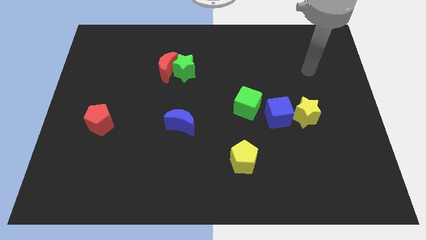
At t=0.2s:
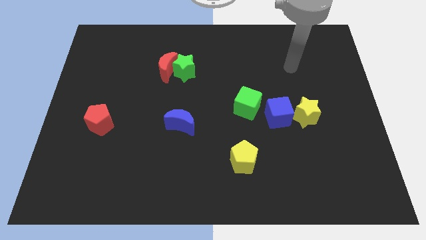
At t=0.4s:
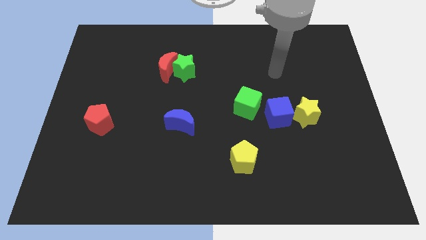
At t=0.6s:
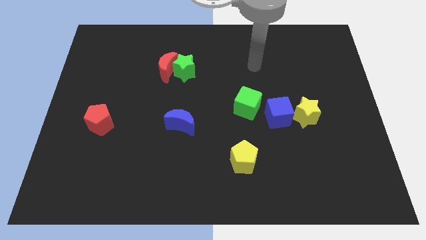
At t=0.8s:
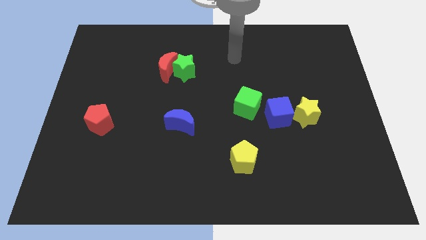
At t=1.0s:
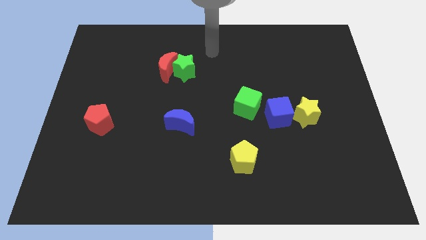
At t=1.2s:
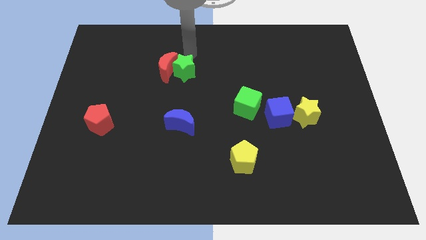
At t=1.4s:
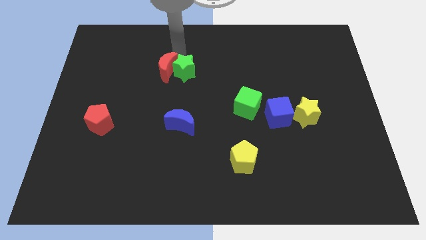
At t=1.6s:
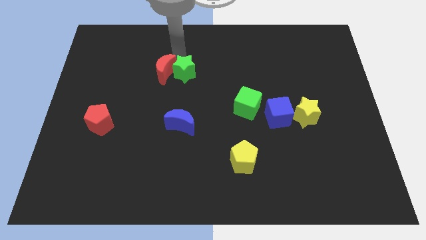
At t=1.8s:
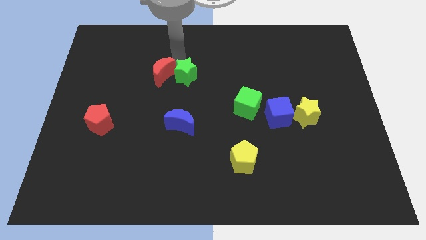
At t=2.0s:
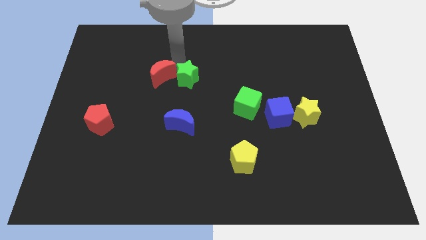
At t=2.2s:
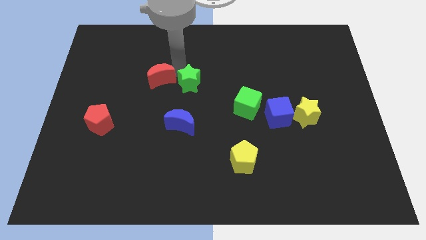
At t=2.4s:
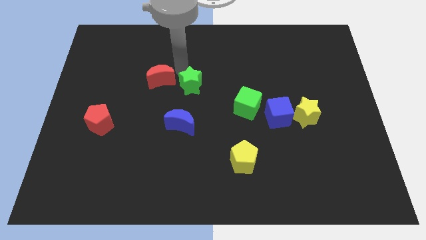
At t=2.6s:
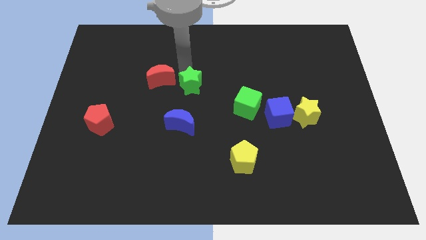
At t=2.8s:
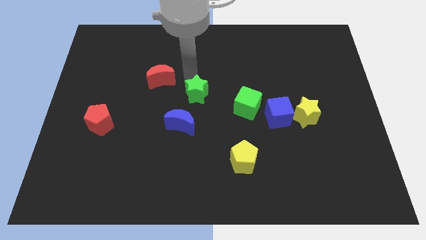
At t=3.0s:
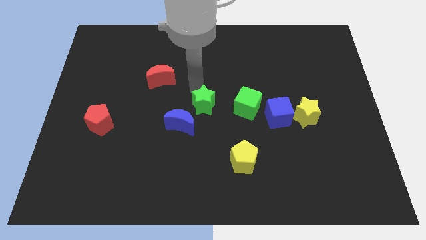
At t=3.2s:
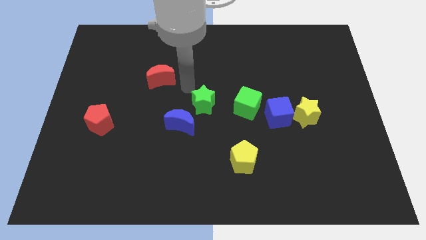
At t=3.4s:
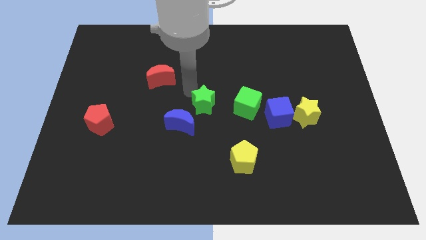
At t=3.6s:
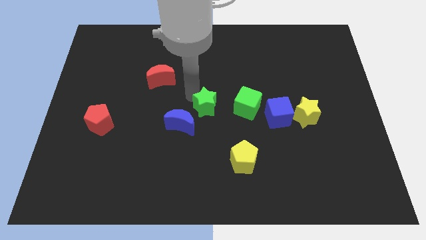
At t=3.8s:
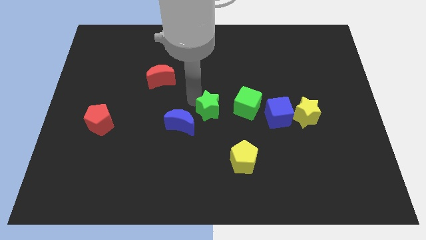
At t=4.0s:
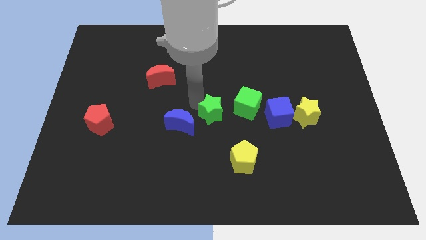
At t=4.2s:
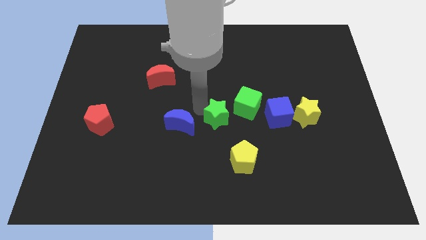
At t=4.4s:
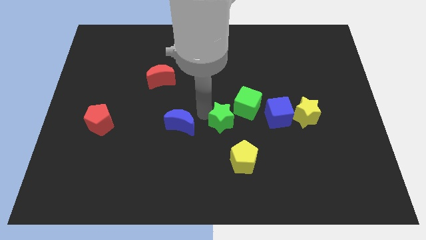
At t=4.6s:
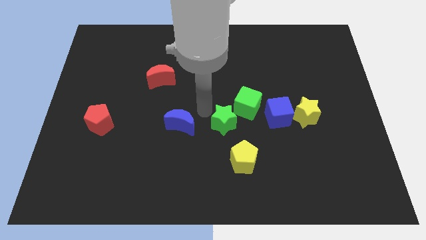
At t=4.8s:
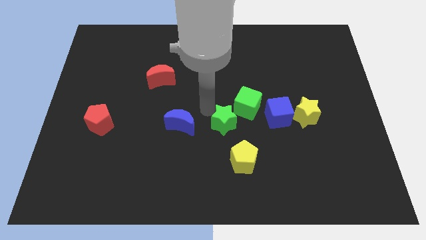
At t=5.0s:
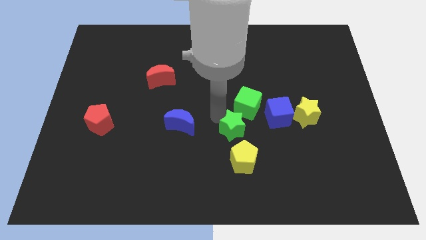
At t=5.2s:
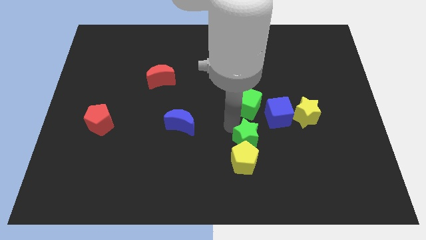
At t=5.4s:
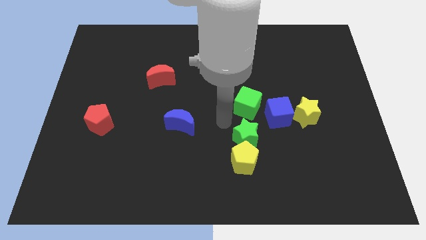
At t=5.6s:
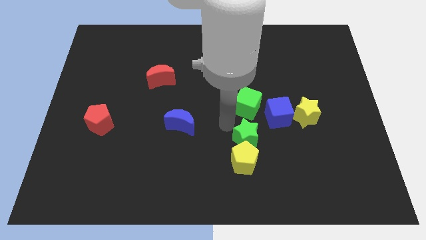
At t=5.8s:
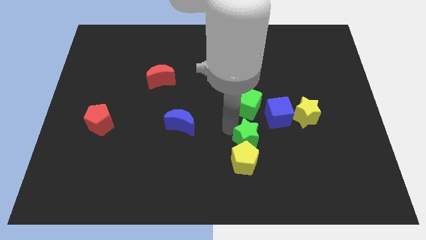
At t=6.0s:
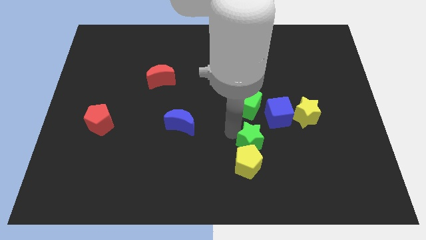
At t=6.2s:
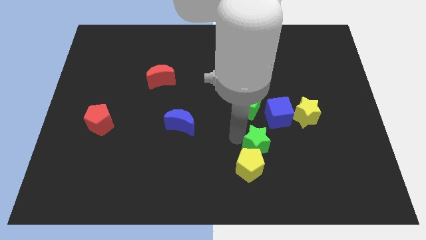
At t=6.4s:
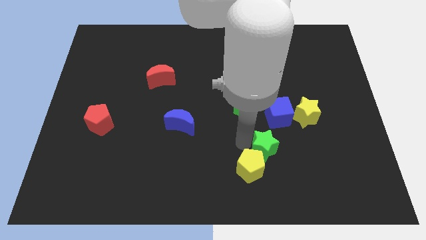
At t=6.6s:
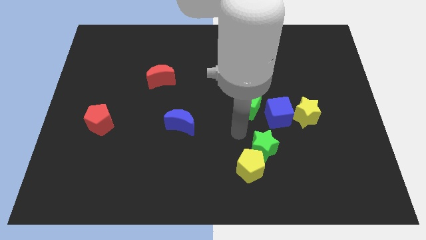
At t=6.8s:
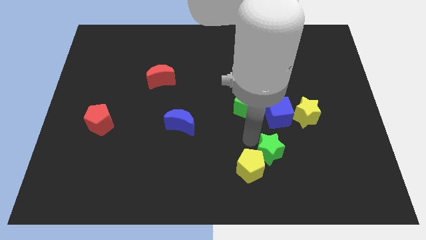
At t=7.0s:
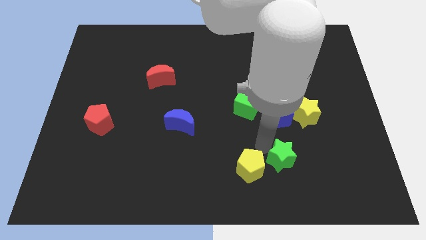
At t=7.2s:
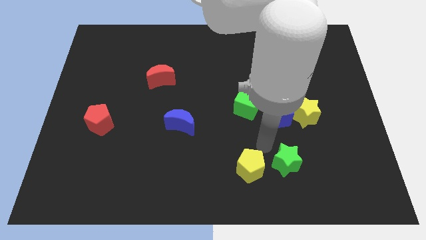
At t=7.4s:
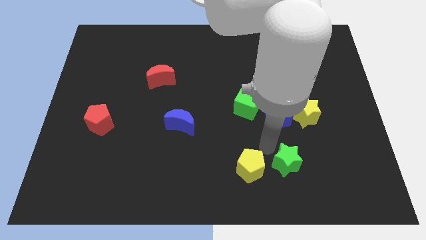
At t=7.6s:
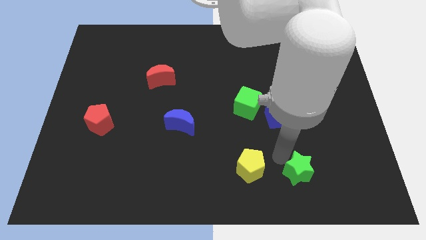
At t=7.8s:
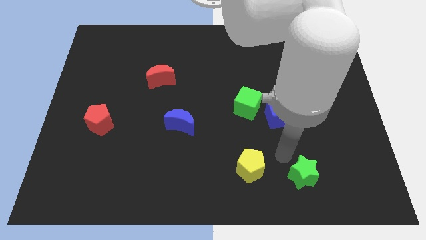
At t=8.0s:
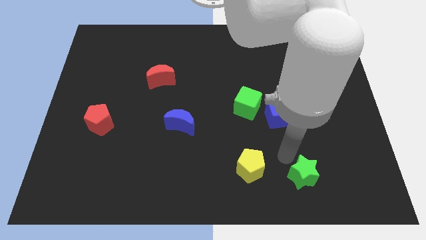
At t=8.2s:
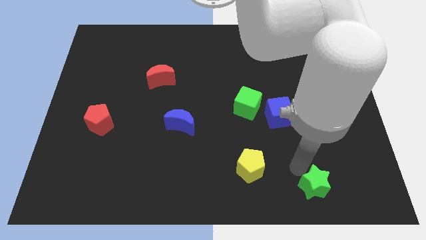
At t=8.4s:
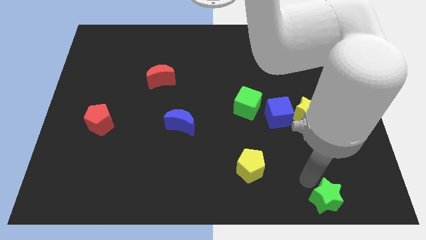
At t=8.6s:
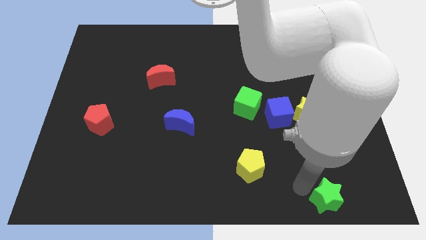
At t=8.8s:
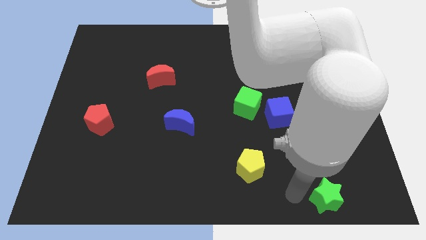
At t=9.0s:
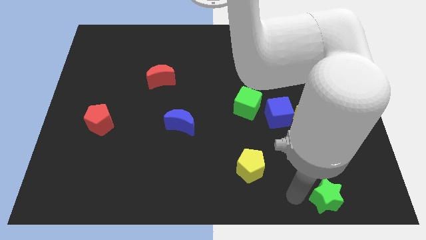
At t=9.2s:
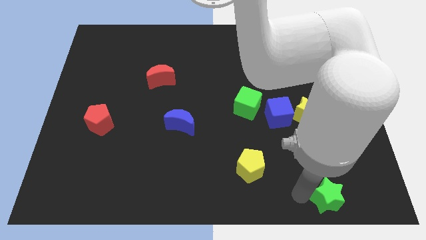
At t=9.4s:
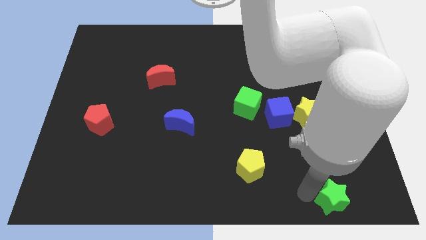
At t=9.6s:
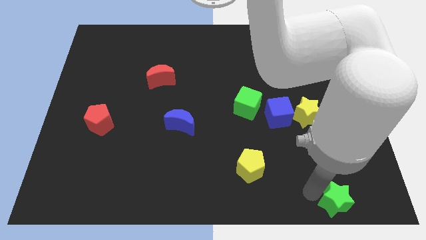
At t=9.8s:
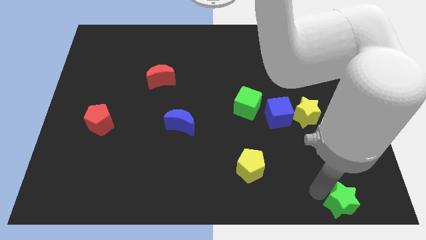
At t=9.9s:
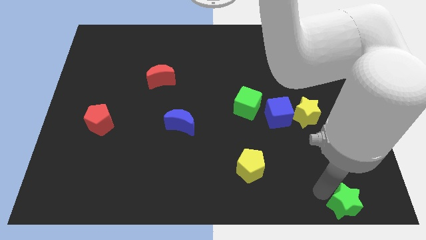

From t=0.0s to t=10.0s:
push the green star to the bottom right corner

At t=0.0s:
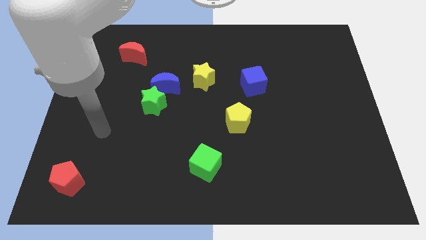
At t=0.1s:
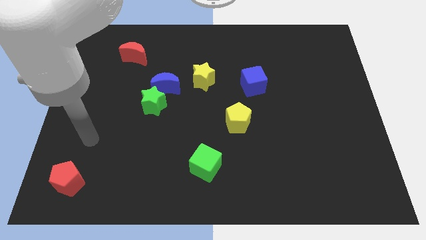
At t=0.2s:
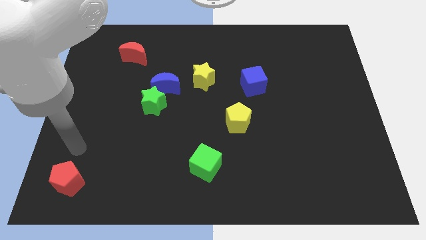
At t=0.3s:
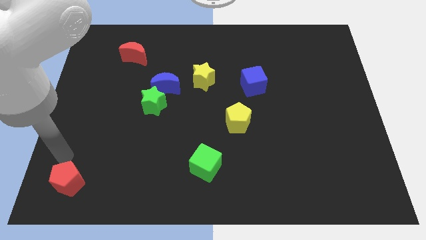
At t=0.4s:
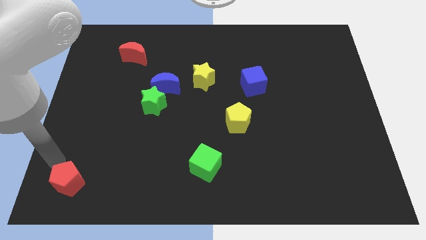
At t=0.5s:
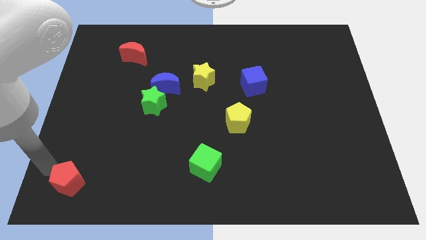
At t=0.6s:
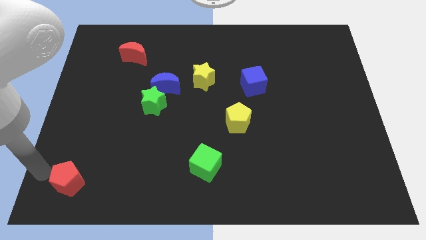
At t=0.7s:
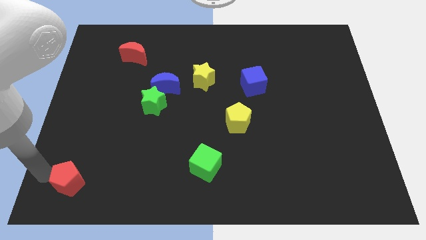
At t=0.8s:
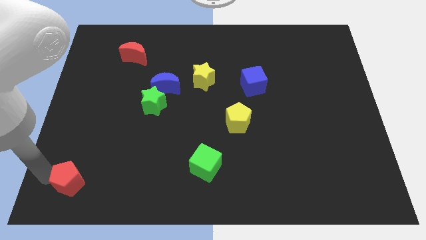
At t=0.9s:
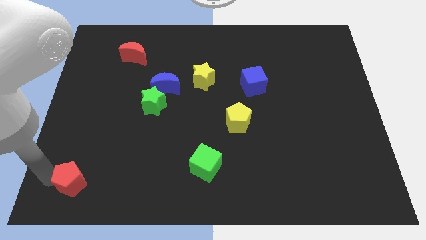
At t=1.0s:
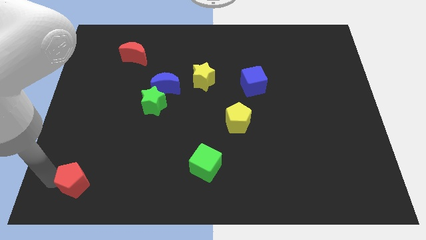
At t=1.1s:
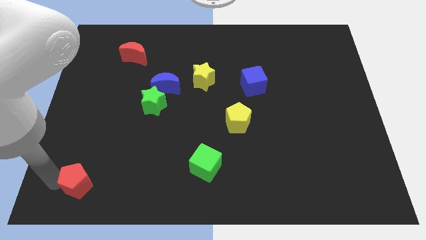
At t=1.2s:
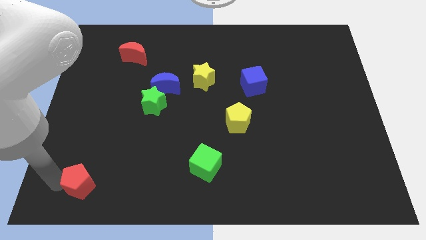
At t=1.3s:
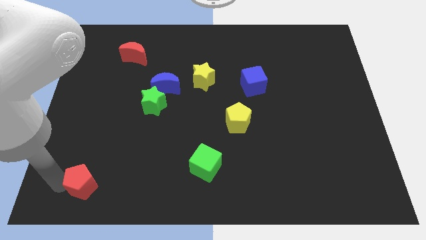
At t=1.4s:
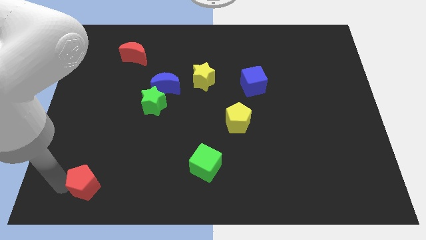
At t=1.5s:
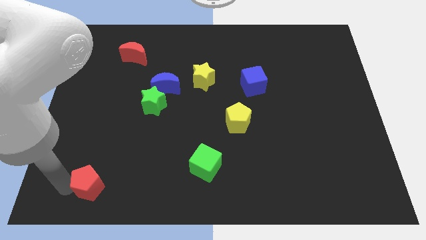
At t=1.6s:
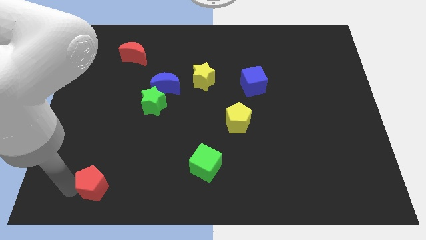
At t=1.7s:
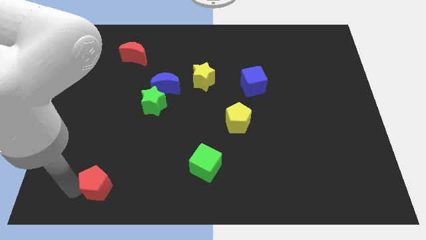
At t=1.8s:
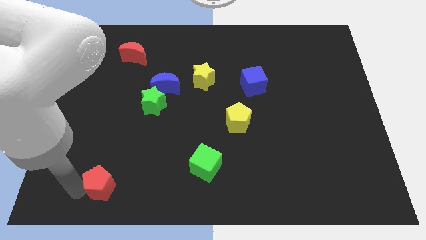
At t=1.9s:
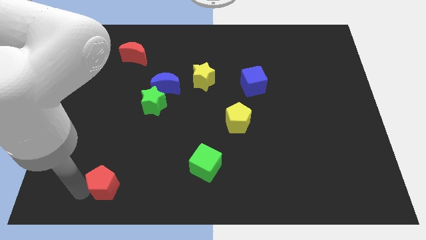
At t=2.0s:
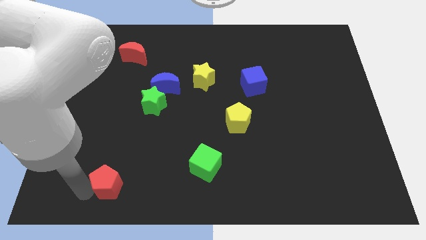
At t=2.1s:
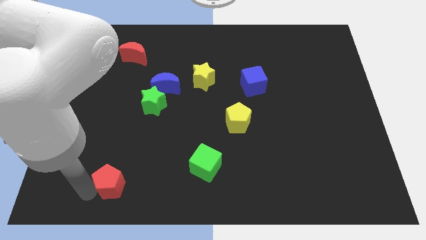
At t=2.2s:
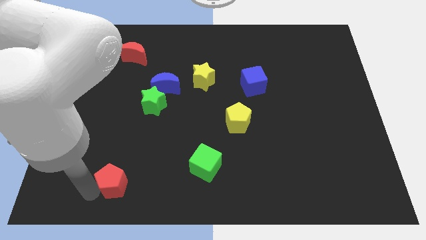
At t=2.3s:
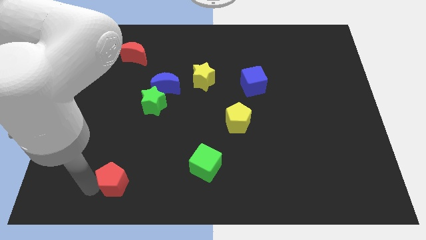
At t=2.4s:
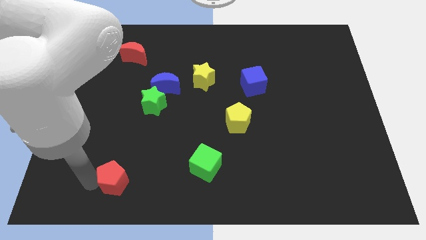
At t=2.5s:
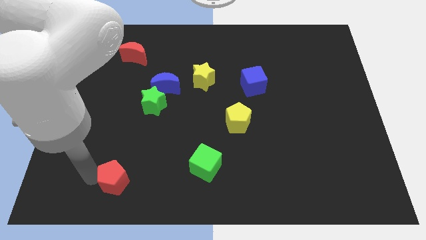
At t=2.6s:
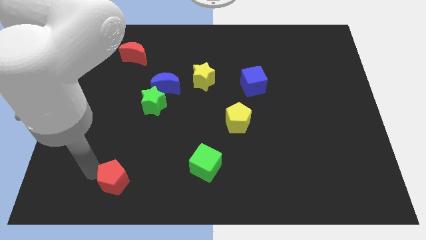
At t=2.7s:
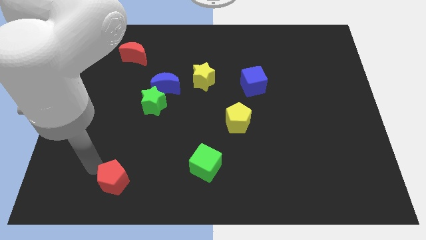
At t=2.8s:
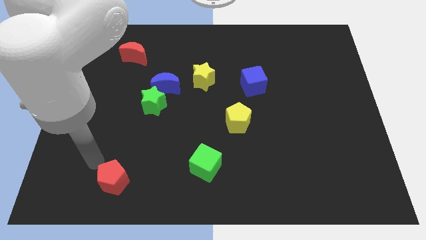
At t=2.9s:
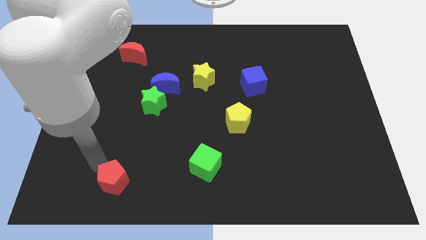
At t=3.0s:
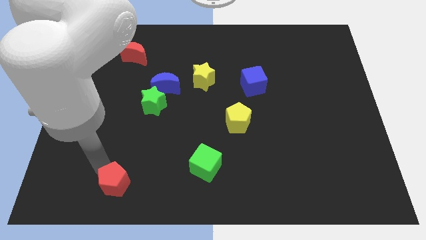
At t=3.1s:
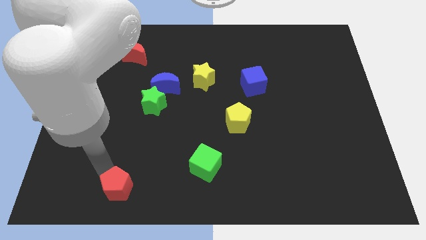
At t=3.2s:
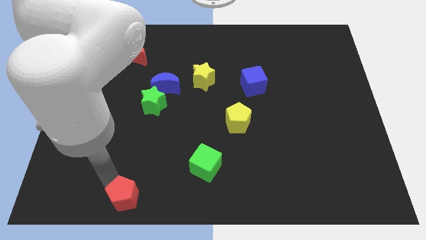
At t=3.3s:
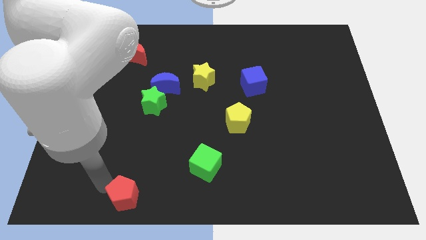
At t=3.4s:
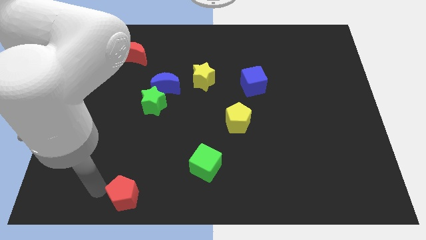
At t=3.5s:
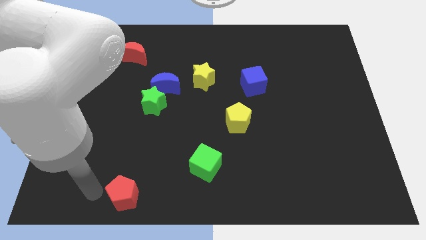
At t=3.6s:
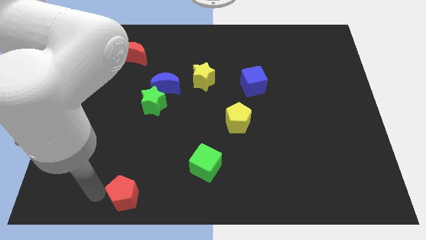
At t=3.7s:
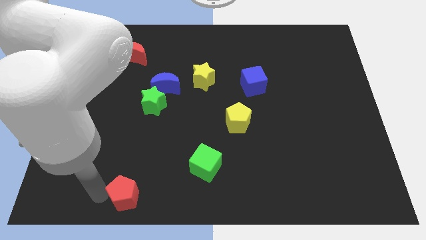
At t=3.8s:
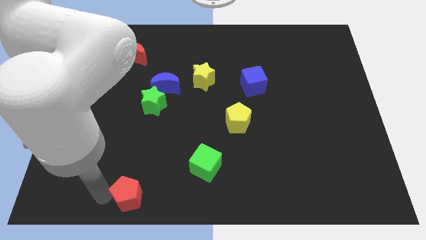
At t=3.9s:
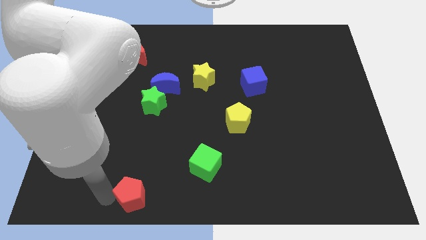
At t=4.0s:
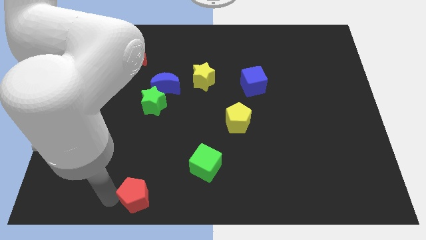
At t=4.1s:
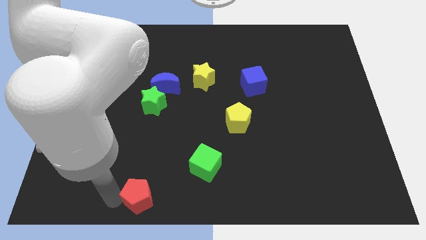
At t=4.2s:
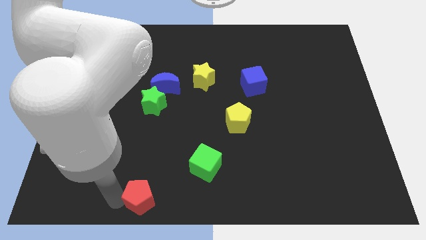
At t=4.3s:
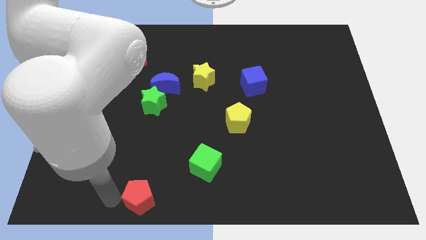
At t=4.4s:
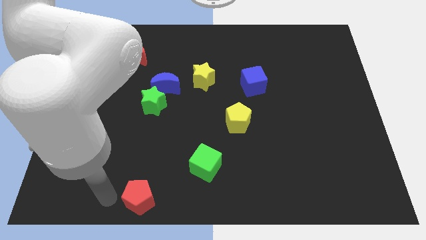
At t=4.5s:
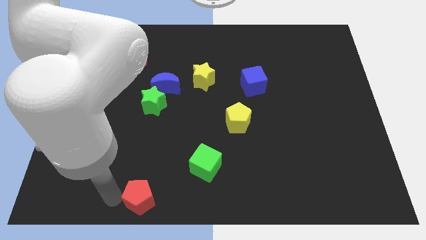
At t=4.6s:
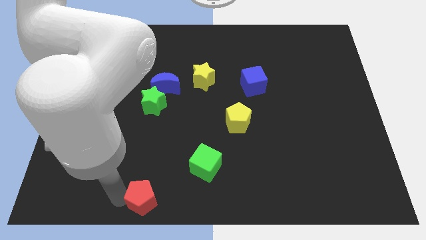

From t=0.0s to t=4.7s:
move the red pentagon to the bottom
